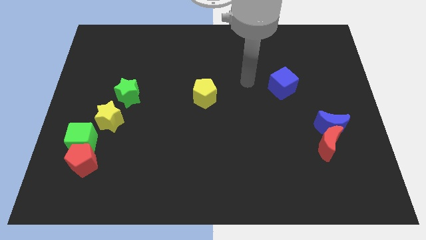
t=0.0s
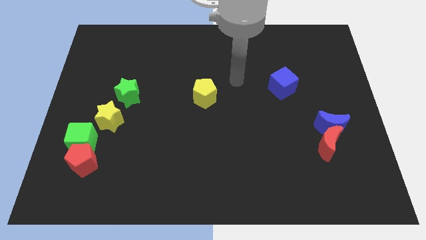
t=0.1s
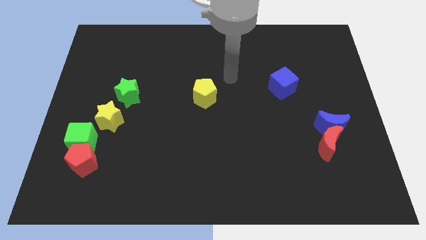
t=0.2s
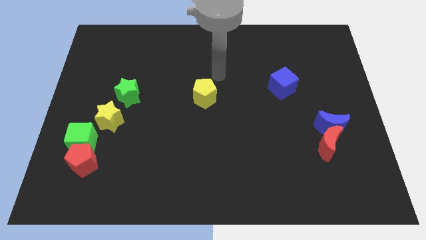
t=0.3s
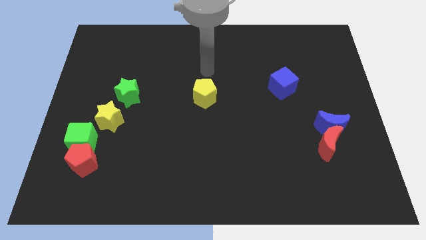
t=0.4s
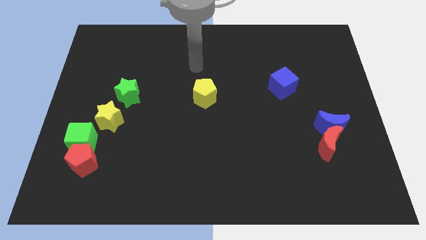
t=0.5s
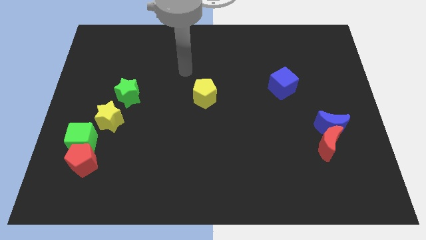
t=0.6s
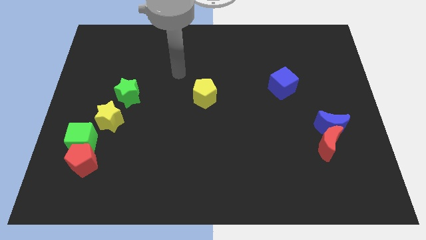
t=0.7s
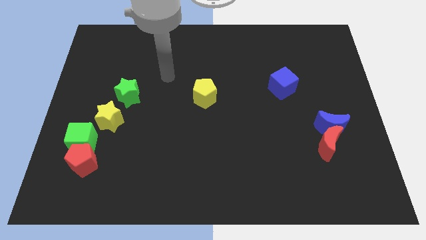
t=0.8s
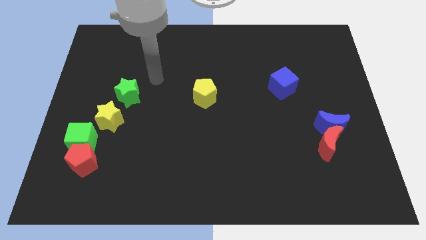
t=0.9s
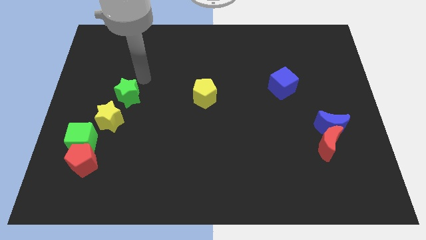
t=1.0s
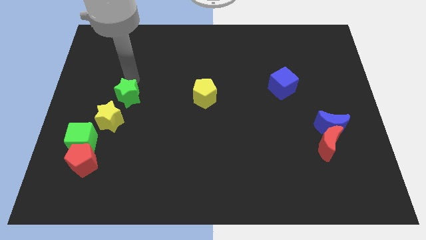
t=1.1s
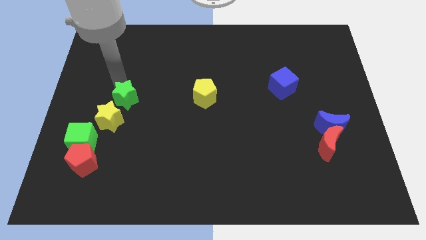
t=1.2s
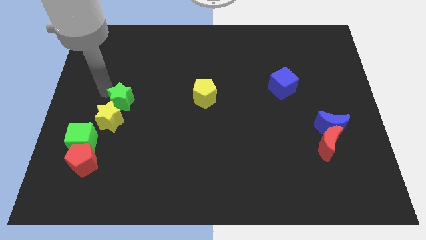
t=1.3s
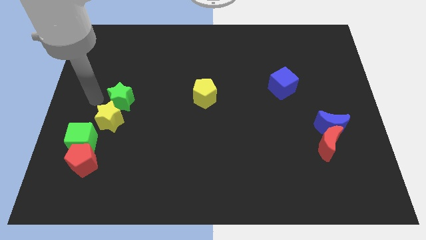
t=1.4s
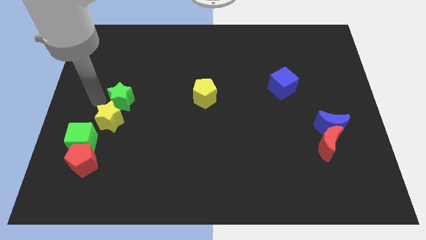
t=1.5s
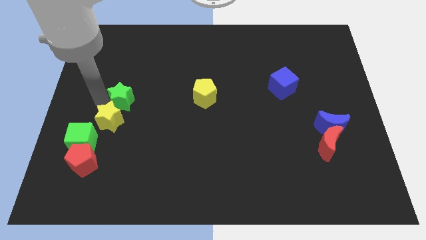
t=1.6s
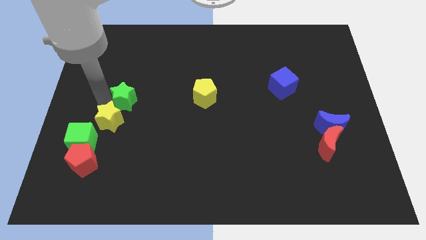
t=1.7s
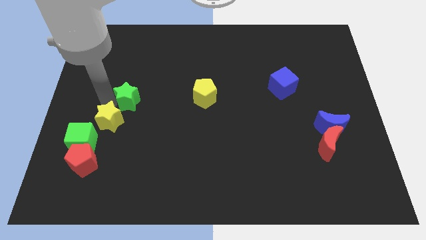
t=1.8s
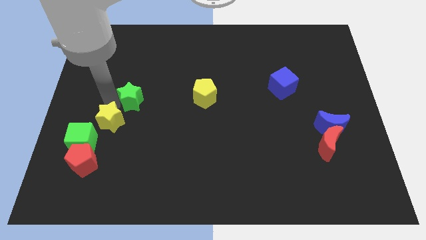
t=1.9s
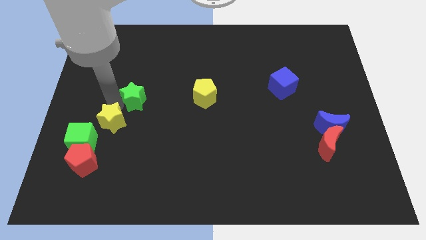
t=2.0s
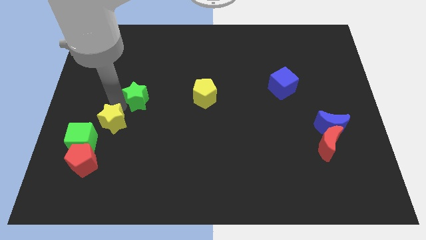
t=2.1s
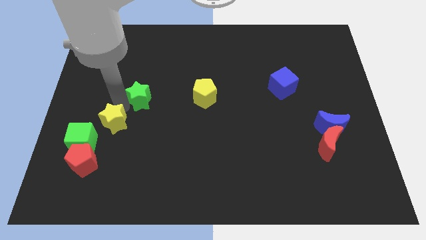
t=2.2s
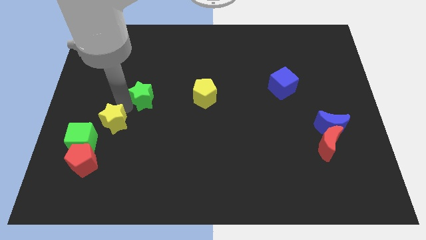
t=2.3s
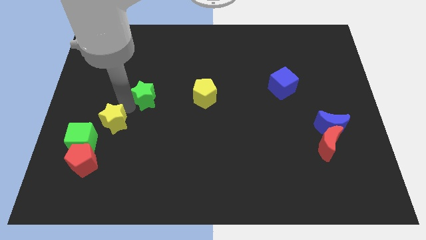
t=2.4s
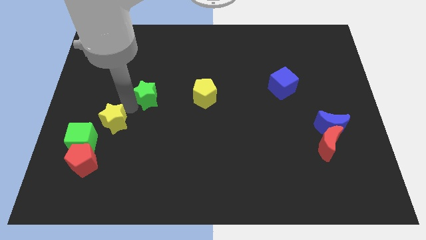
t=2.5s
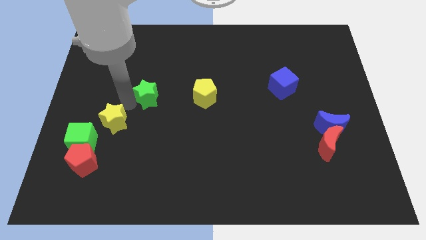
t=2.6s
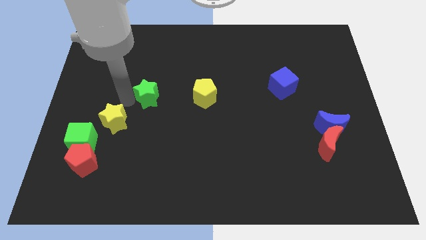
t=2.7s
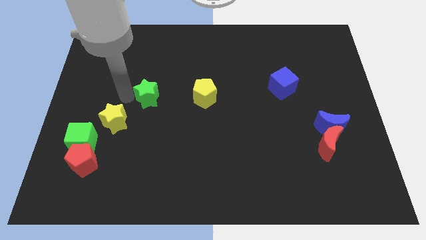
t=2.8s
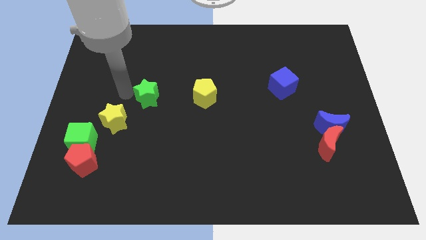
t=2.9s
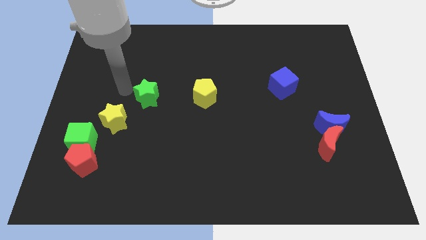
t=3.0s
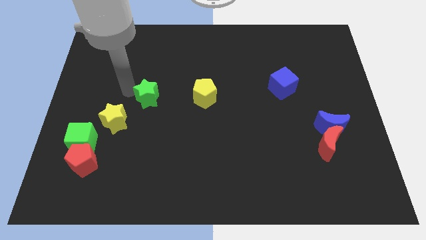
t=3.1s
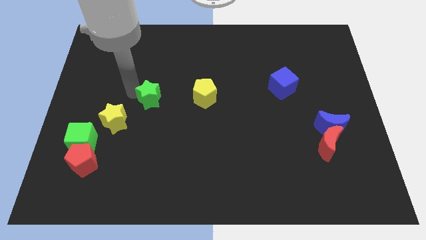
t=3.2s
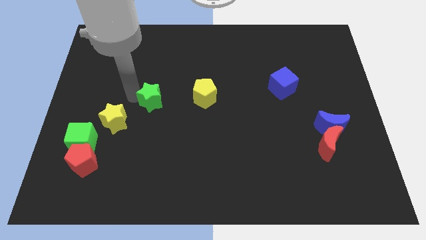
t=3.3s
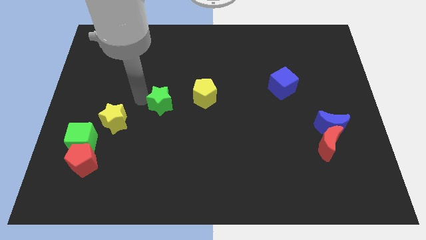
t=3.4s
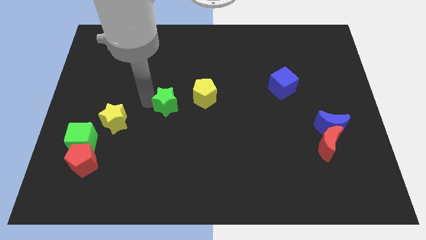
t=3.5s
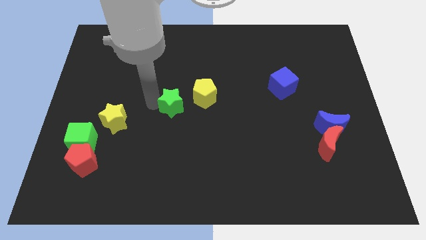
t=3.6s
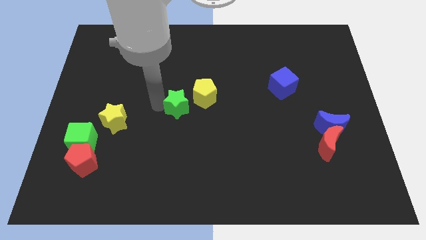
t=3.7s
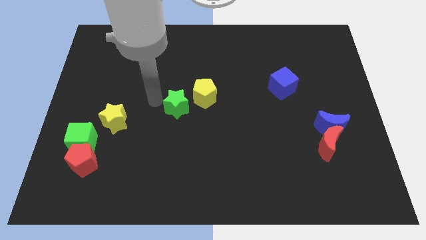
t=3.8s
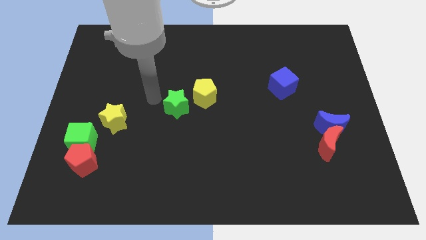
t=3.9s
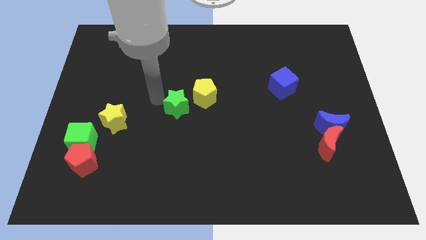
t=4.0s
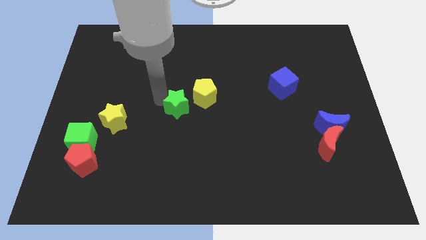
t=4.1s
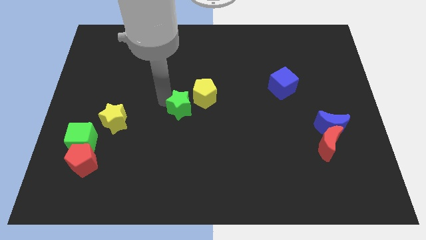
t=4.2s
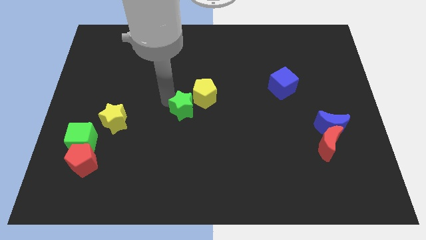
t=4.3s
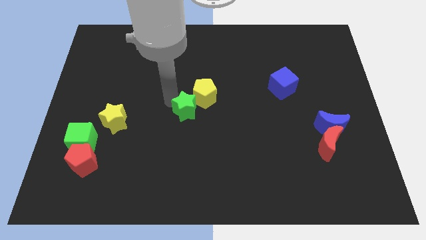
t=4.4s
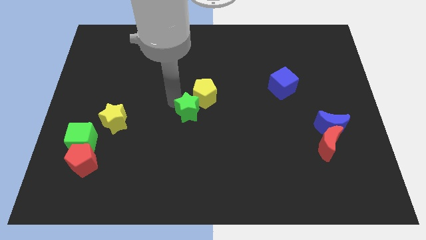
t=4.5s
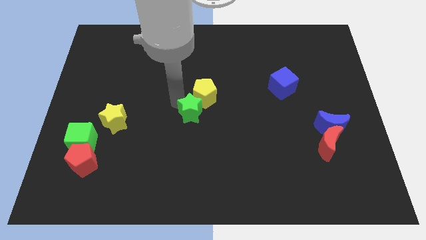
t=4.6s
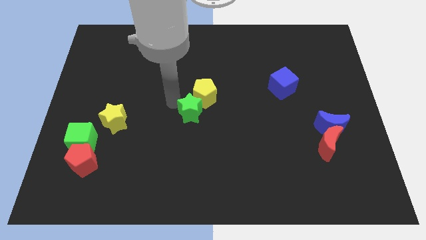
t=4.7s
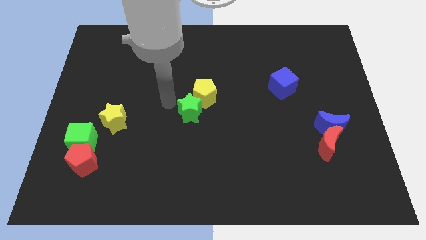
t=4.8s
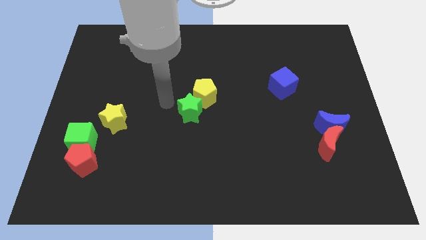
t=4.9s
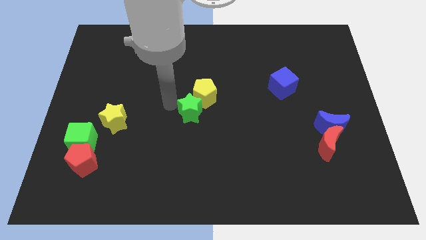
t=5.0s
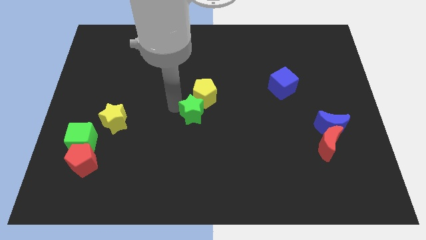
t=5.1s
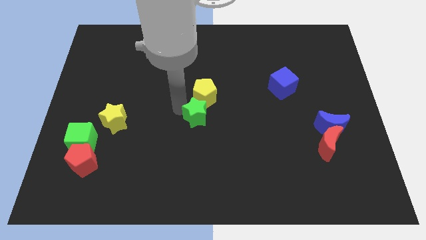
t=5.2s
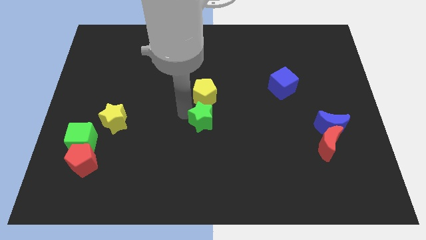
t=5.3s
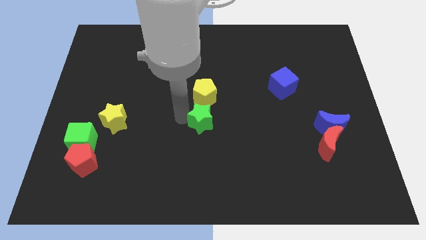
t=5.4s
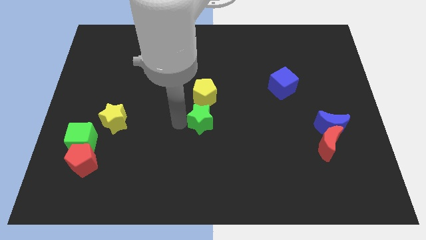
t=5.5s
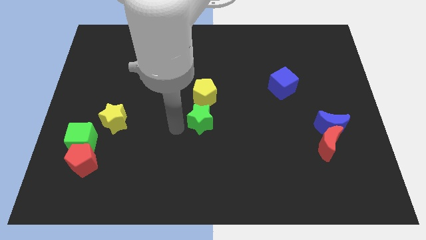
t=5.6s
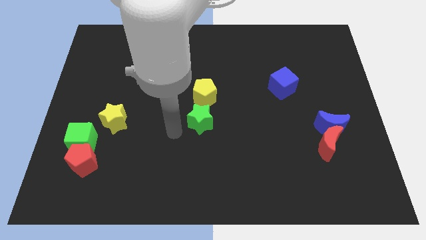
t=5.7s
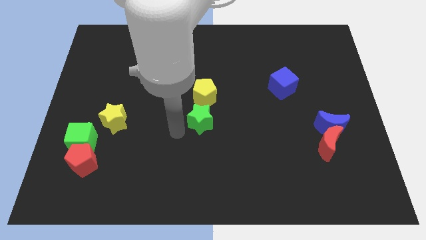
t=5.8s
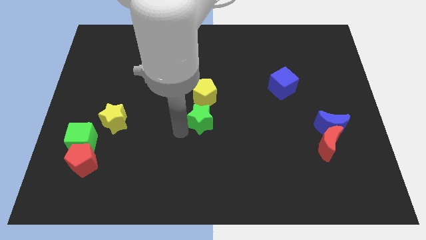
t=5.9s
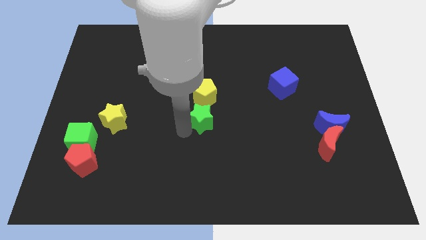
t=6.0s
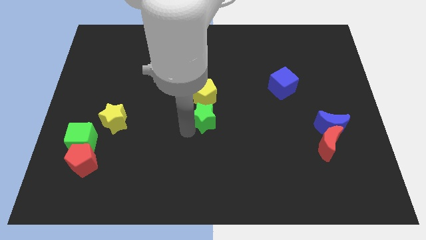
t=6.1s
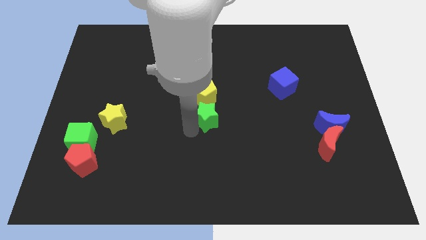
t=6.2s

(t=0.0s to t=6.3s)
move the green star to the bottom right of the yellow pentagon

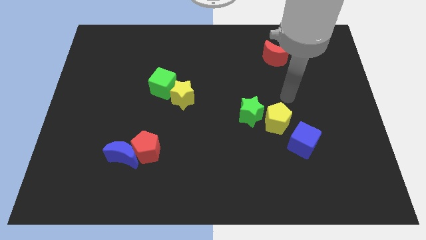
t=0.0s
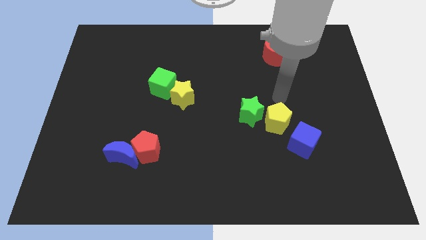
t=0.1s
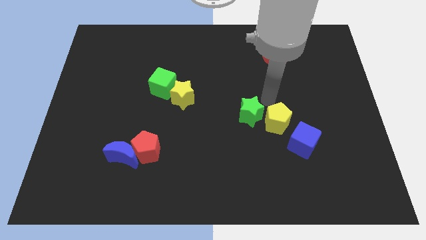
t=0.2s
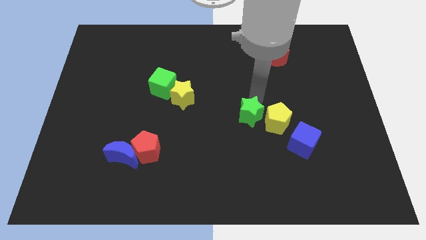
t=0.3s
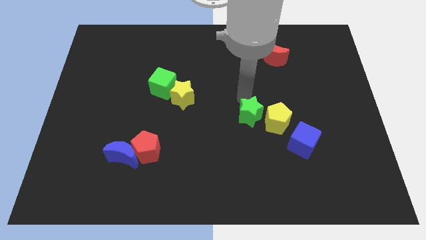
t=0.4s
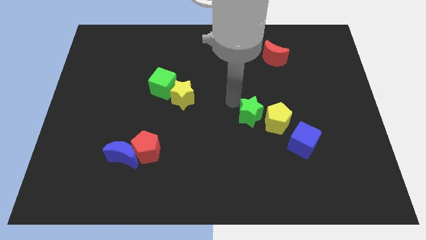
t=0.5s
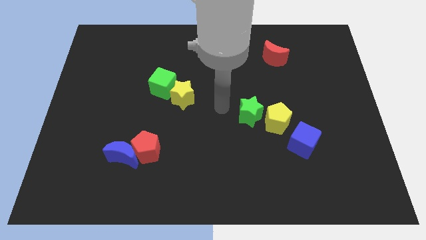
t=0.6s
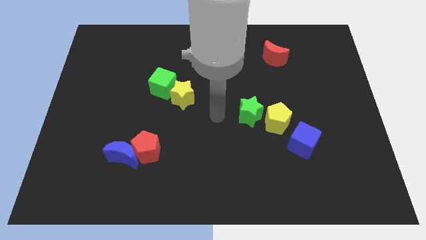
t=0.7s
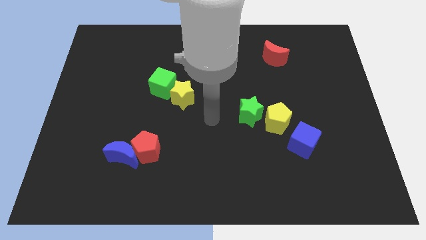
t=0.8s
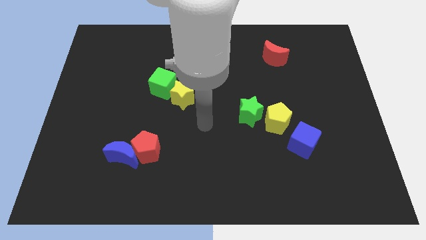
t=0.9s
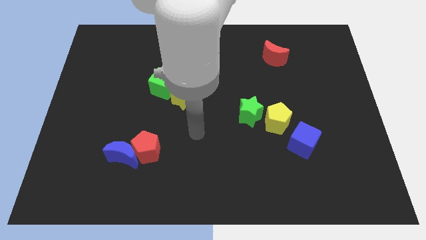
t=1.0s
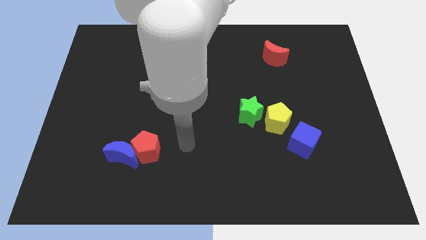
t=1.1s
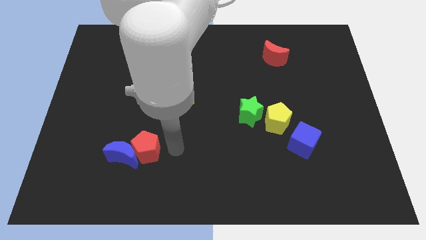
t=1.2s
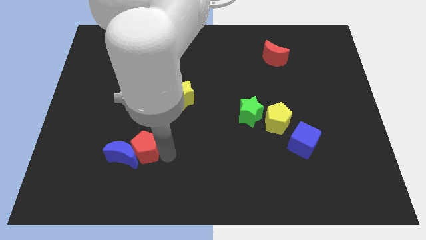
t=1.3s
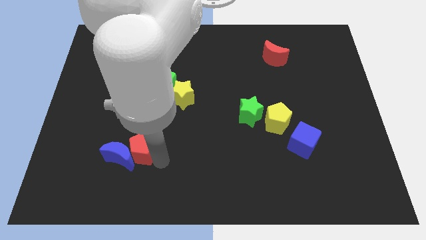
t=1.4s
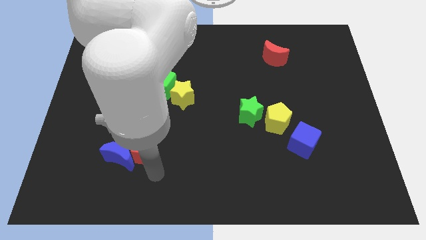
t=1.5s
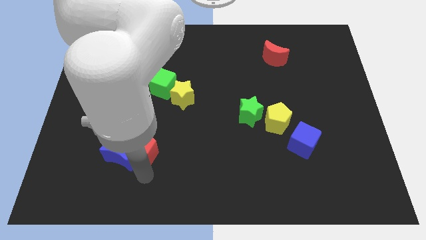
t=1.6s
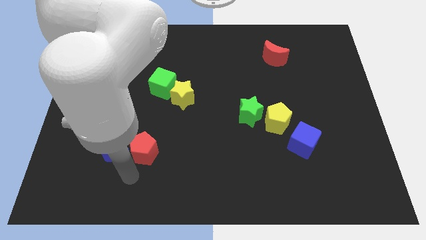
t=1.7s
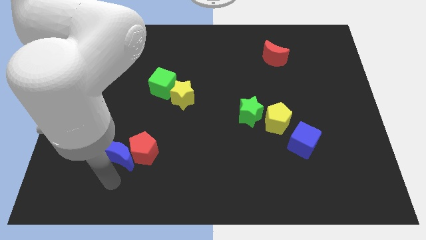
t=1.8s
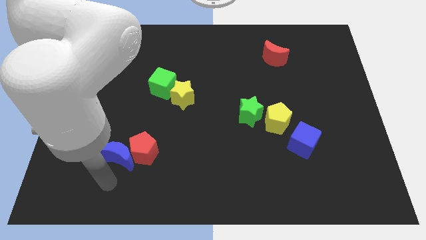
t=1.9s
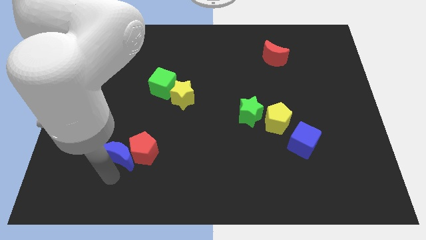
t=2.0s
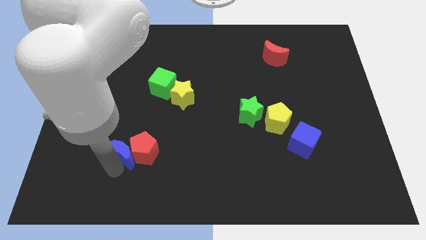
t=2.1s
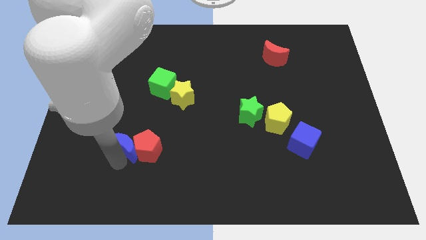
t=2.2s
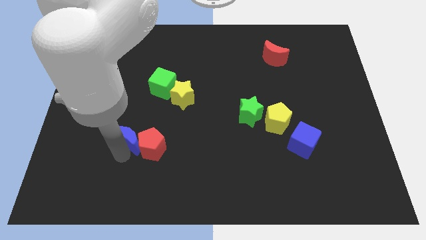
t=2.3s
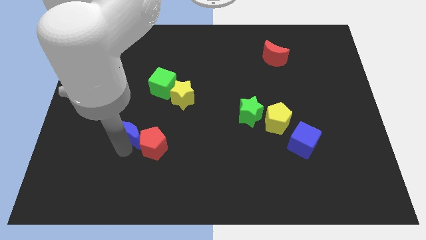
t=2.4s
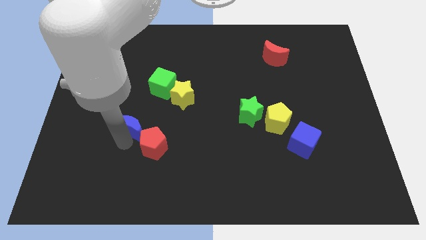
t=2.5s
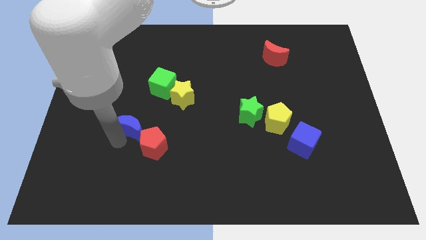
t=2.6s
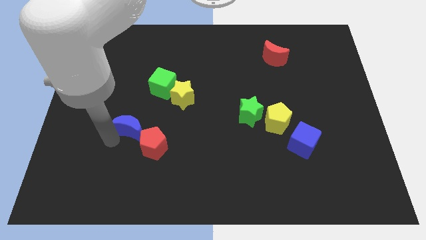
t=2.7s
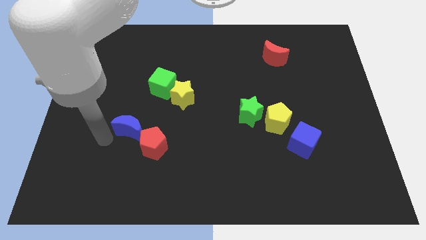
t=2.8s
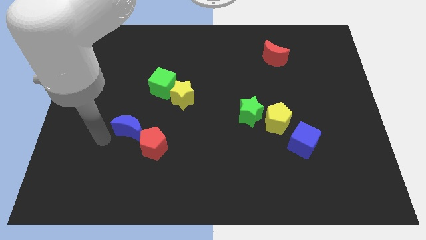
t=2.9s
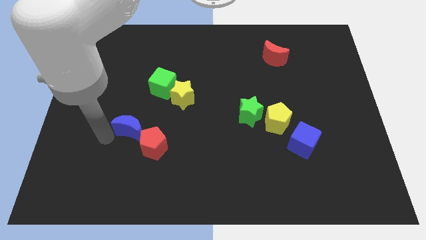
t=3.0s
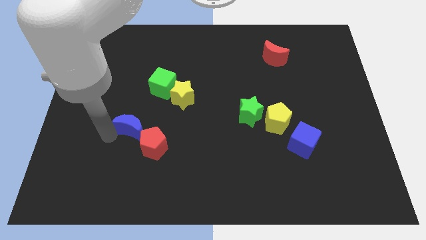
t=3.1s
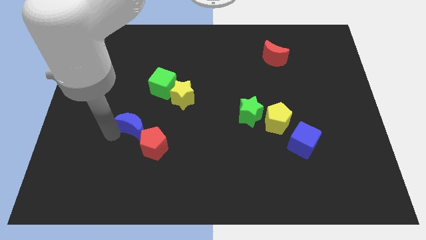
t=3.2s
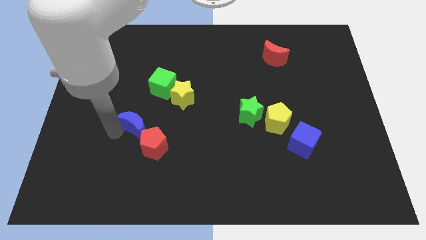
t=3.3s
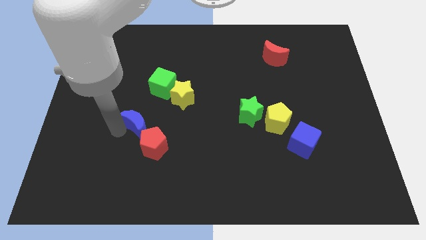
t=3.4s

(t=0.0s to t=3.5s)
move the blue moon to the bottom side of the green cube
